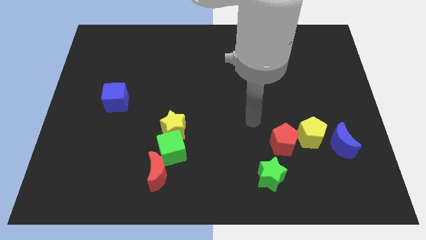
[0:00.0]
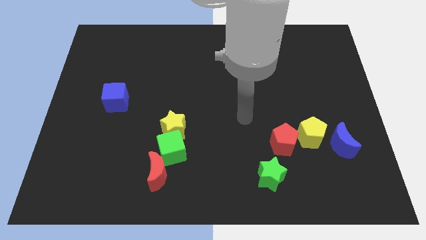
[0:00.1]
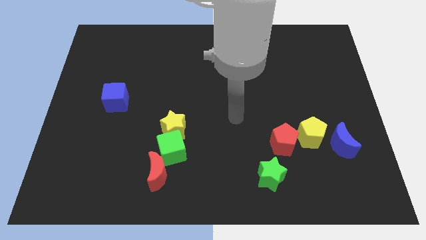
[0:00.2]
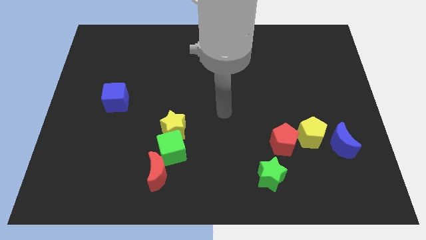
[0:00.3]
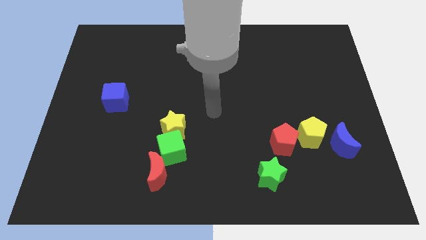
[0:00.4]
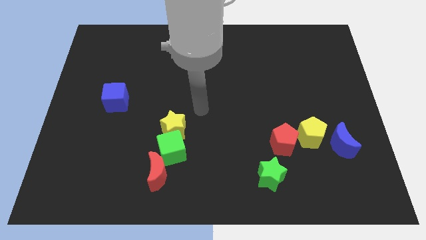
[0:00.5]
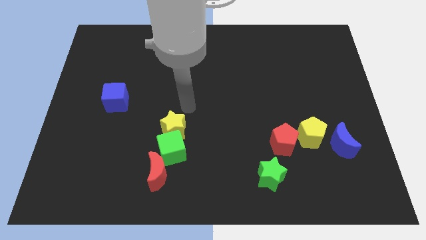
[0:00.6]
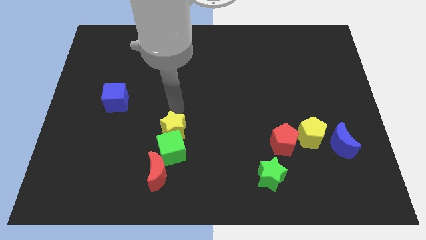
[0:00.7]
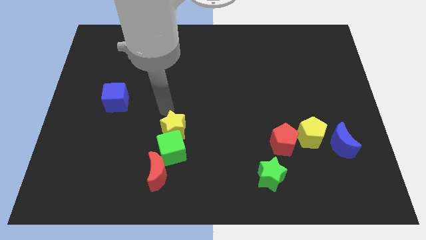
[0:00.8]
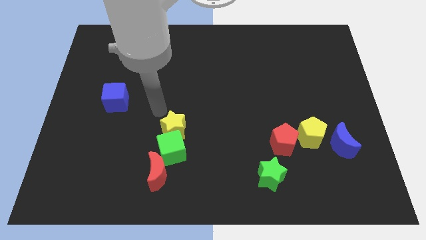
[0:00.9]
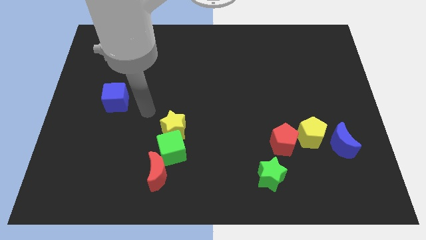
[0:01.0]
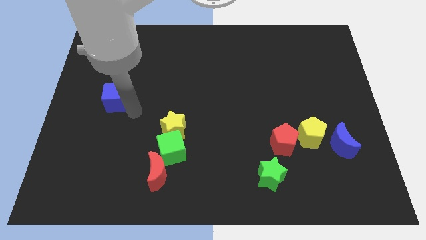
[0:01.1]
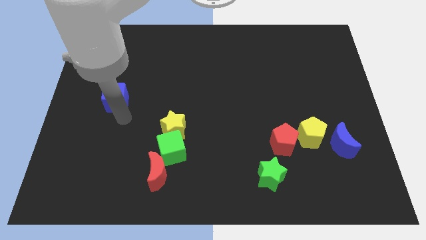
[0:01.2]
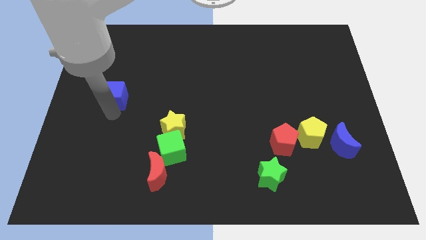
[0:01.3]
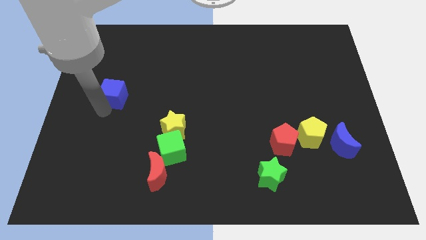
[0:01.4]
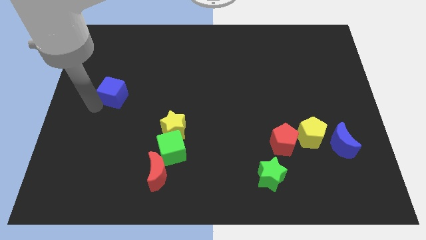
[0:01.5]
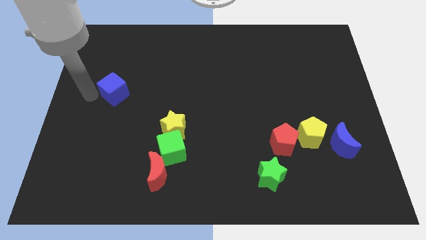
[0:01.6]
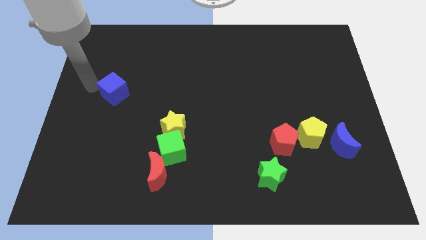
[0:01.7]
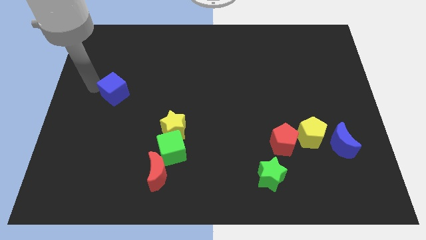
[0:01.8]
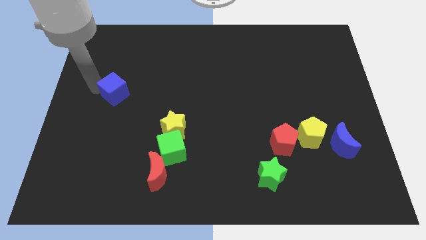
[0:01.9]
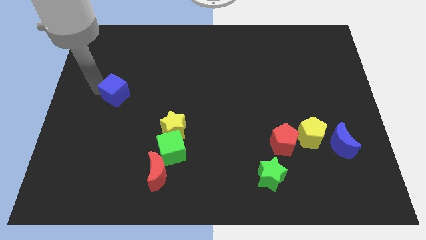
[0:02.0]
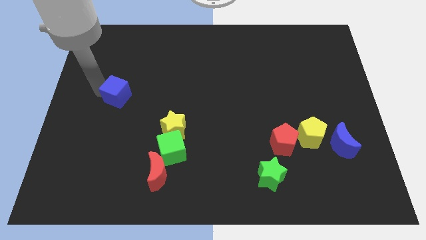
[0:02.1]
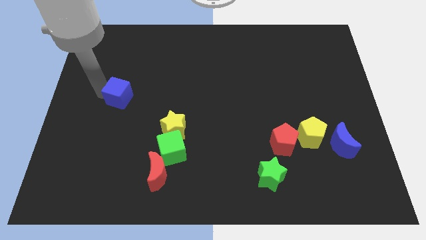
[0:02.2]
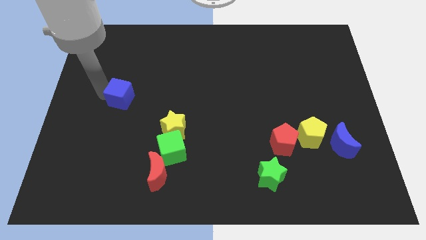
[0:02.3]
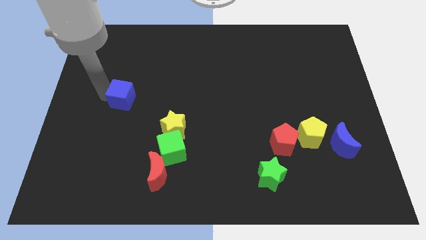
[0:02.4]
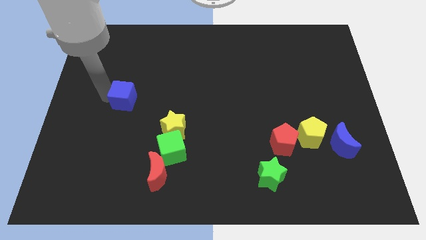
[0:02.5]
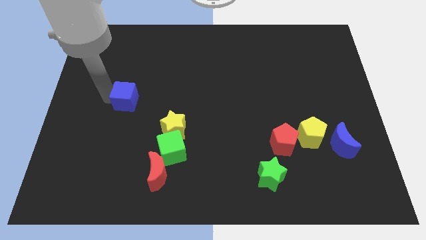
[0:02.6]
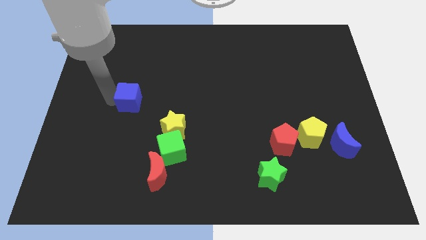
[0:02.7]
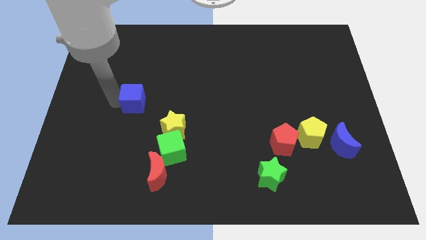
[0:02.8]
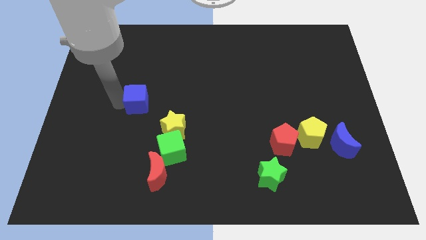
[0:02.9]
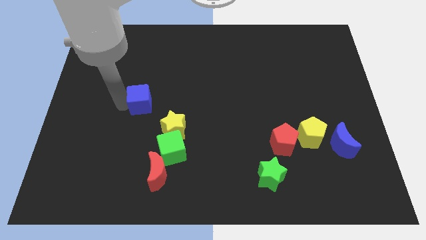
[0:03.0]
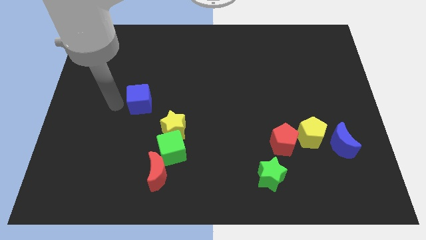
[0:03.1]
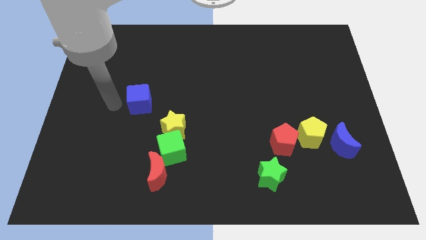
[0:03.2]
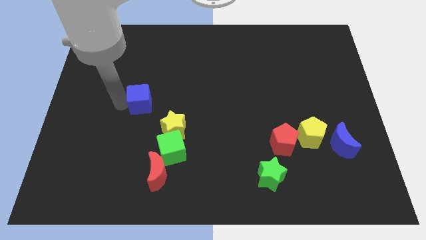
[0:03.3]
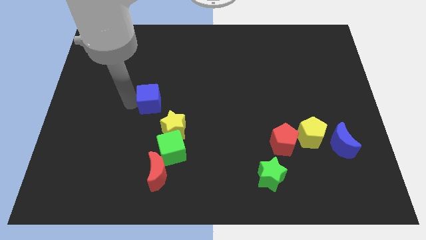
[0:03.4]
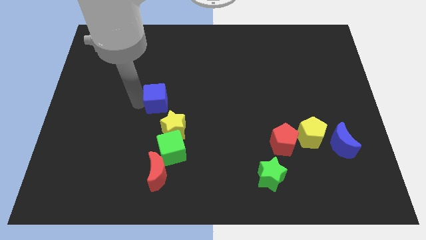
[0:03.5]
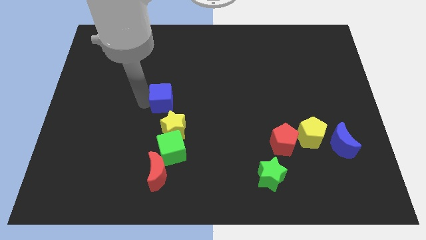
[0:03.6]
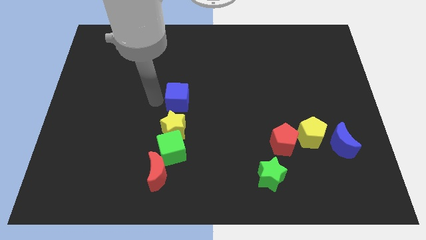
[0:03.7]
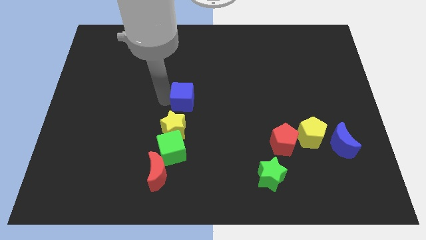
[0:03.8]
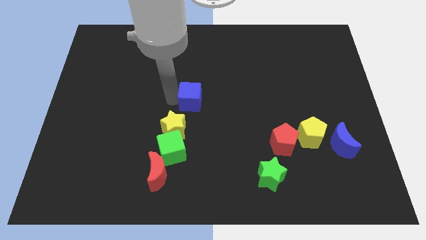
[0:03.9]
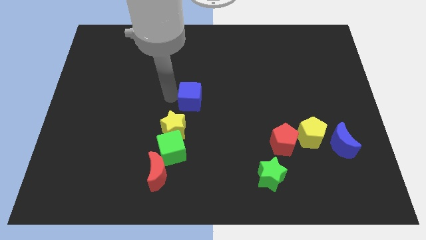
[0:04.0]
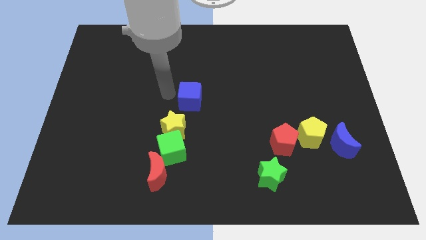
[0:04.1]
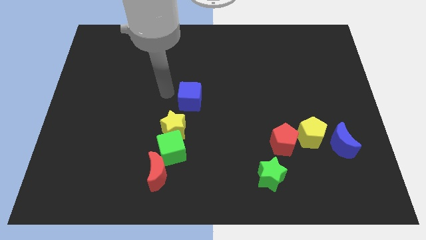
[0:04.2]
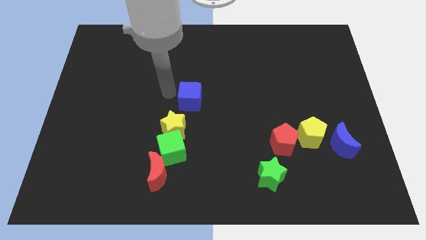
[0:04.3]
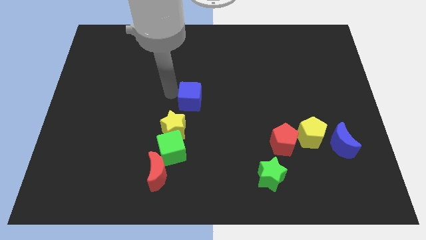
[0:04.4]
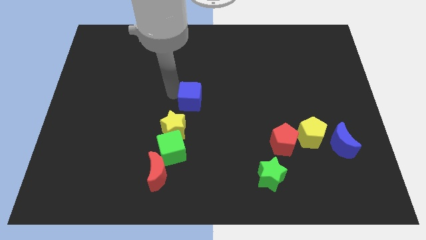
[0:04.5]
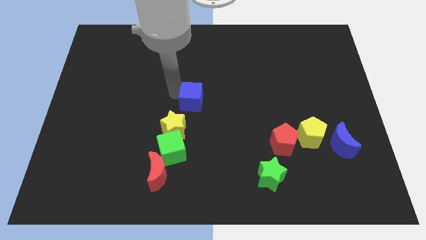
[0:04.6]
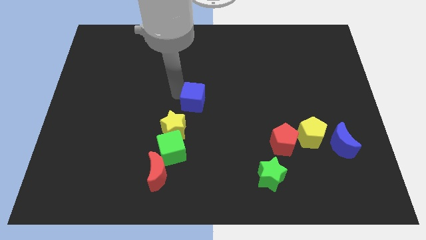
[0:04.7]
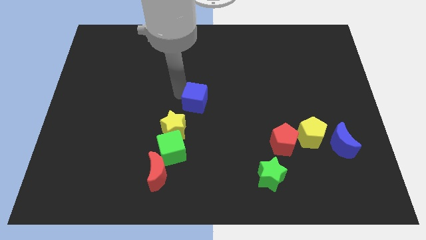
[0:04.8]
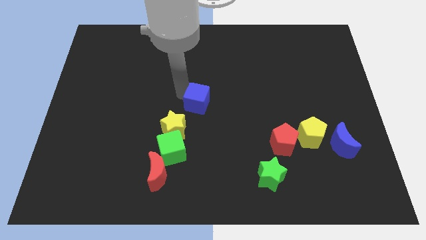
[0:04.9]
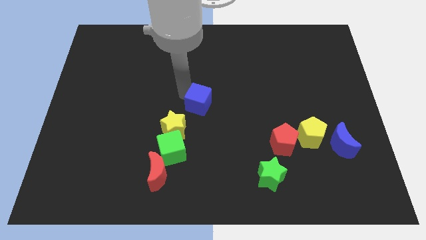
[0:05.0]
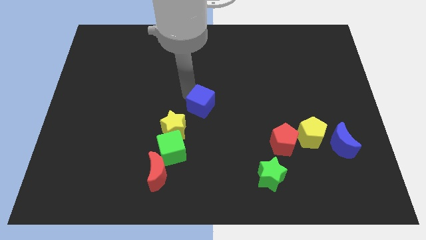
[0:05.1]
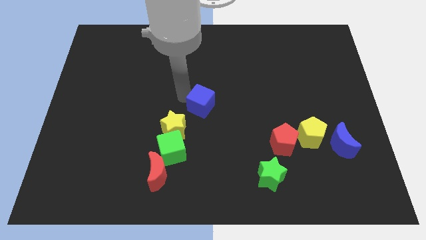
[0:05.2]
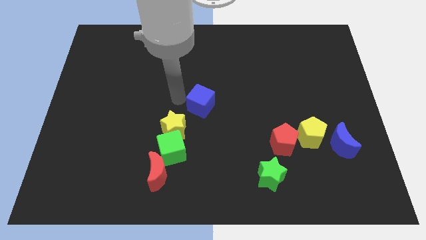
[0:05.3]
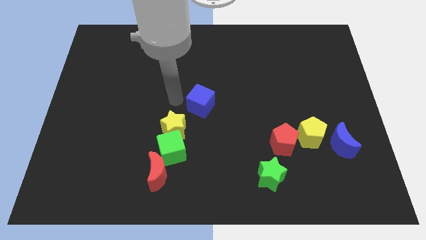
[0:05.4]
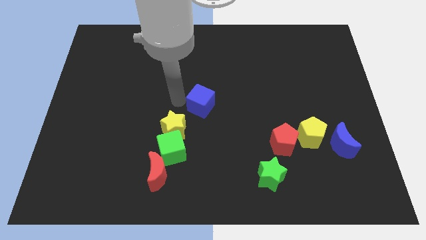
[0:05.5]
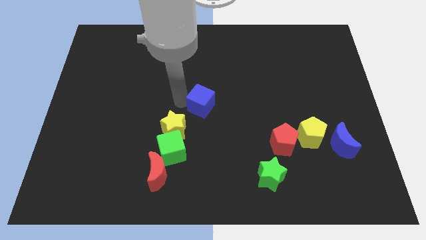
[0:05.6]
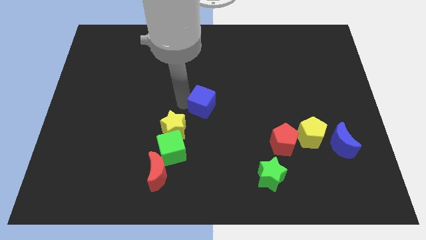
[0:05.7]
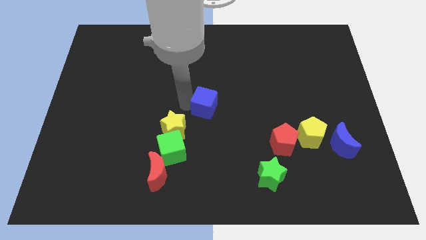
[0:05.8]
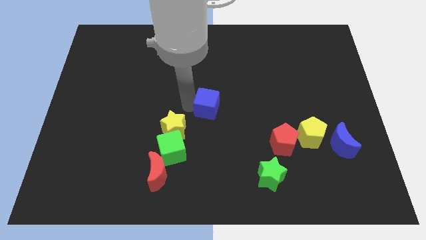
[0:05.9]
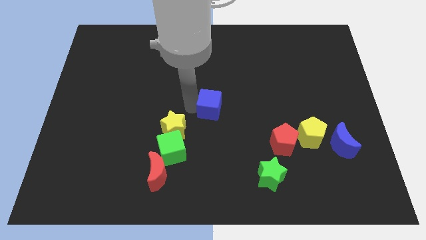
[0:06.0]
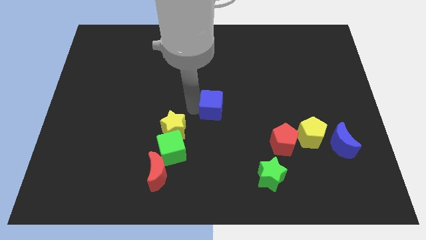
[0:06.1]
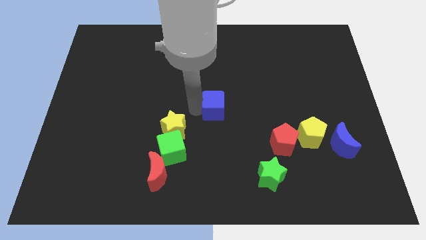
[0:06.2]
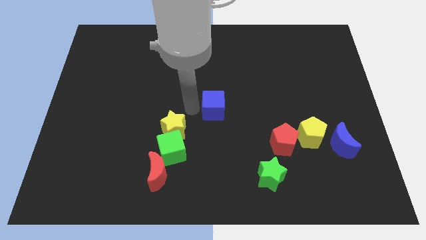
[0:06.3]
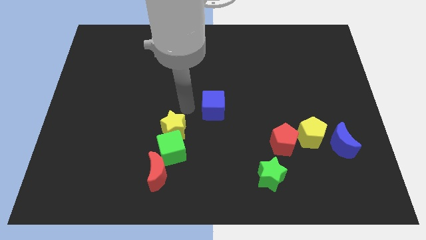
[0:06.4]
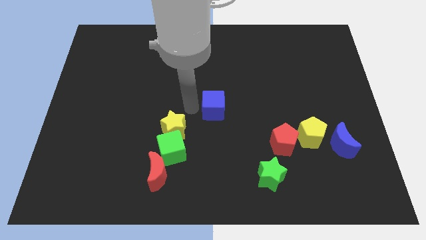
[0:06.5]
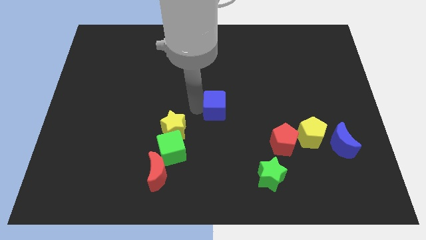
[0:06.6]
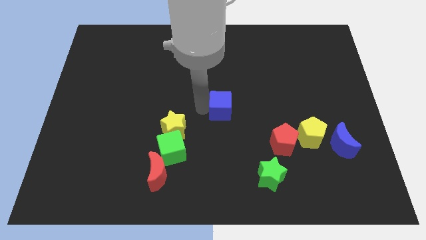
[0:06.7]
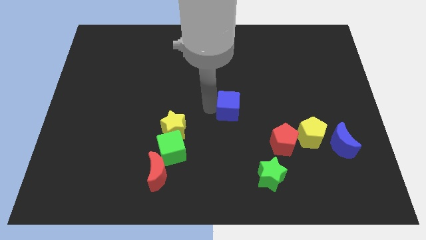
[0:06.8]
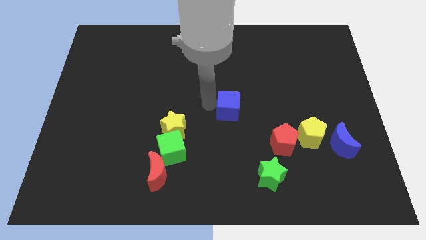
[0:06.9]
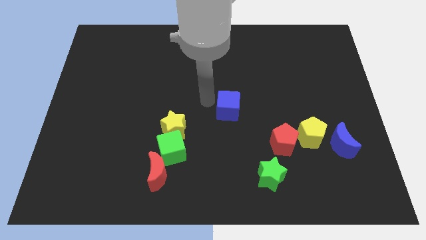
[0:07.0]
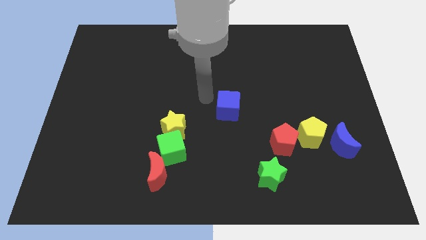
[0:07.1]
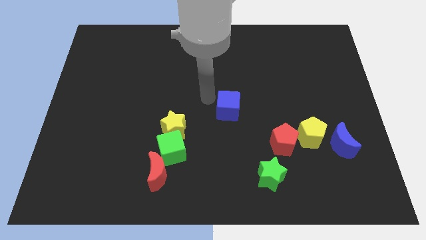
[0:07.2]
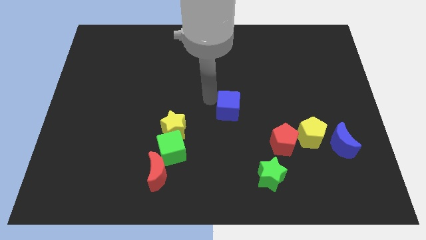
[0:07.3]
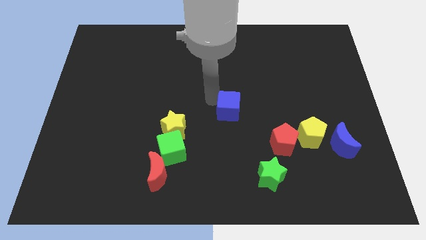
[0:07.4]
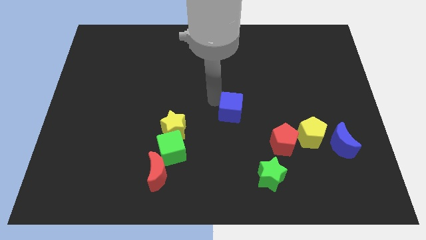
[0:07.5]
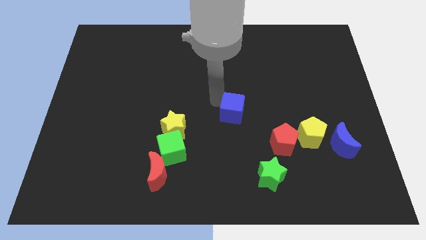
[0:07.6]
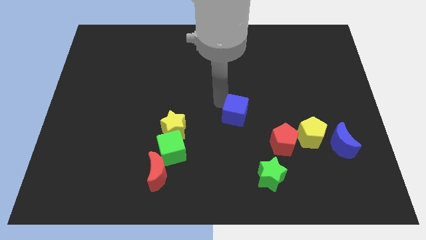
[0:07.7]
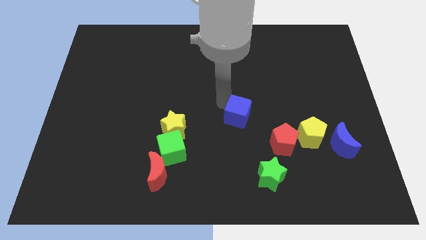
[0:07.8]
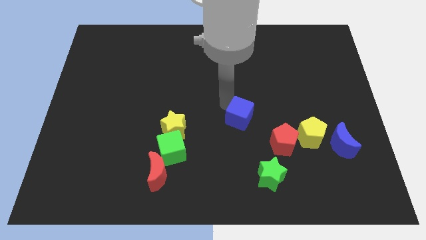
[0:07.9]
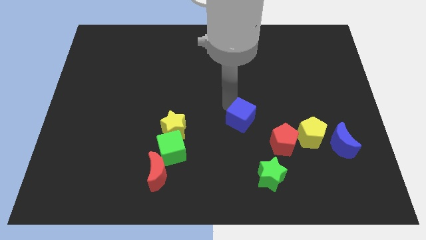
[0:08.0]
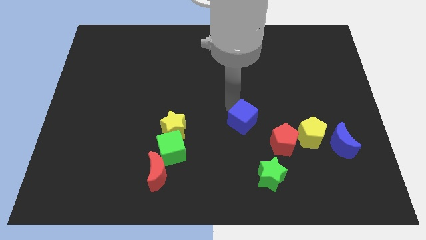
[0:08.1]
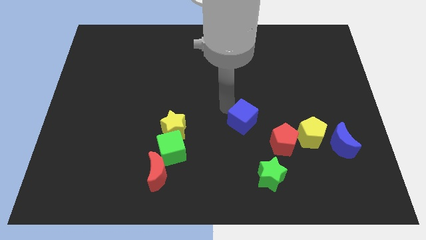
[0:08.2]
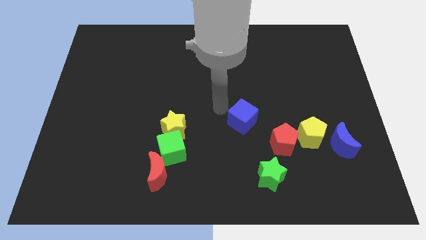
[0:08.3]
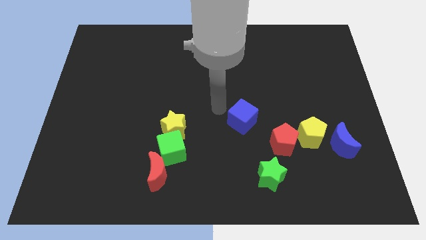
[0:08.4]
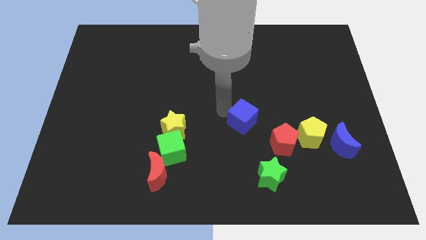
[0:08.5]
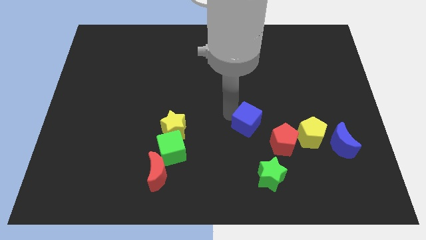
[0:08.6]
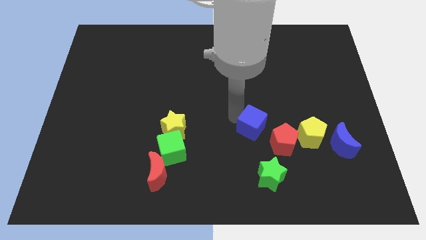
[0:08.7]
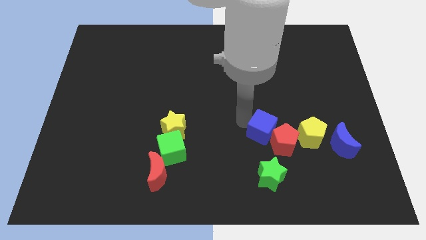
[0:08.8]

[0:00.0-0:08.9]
move the blue cube to the red pentagon
